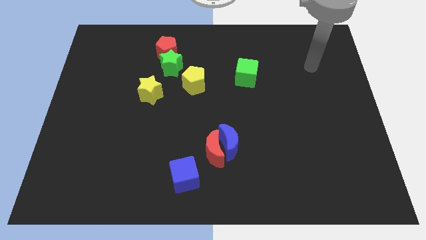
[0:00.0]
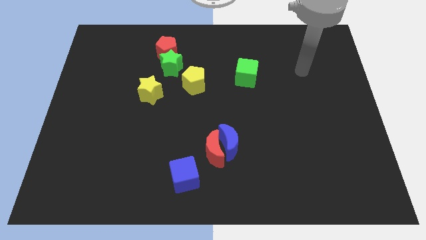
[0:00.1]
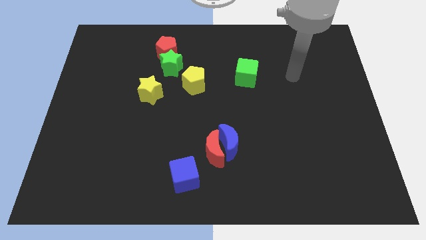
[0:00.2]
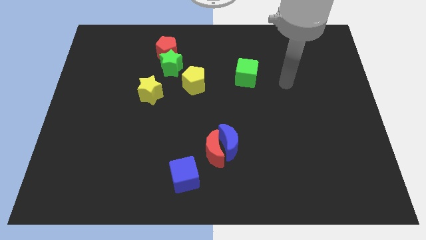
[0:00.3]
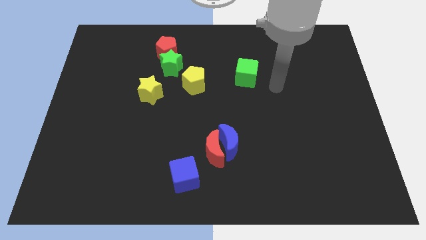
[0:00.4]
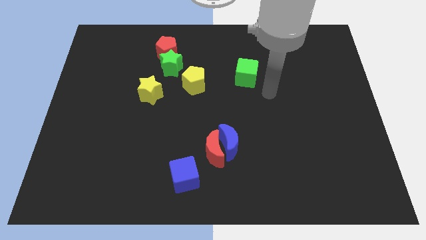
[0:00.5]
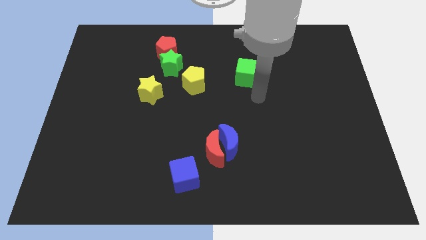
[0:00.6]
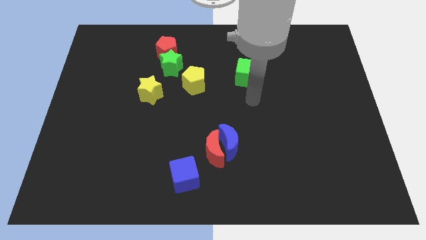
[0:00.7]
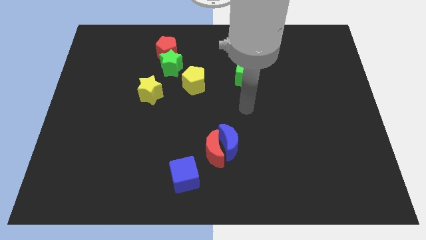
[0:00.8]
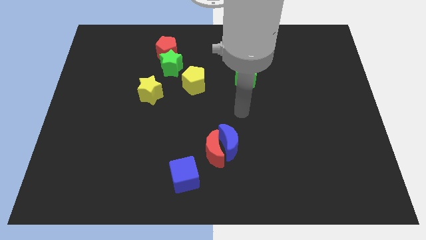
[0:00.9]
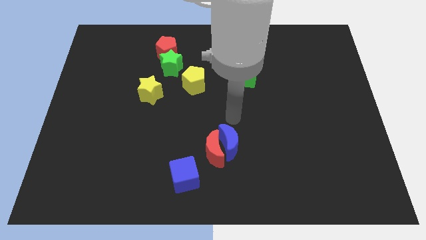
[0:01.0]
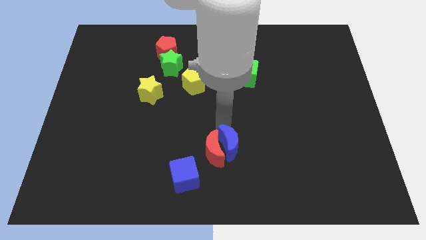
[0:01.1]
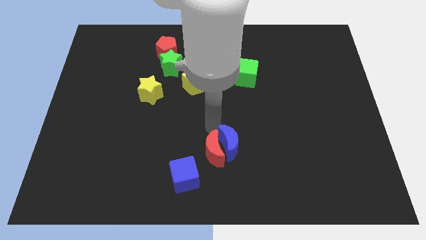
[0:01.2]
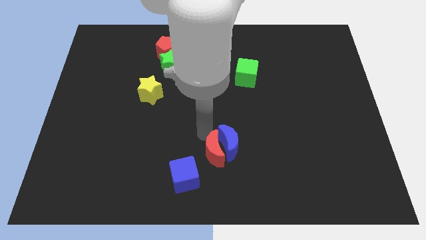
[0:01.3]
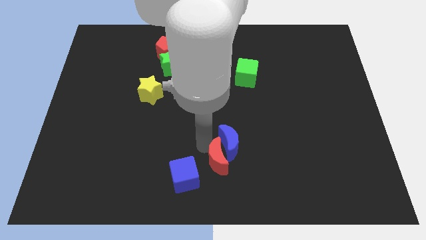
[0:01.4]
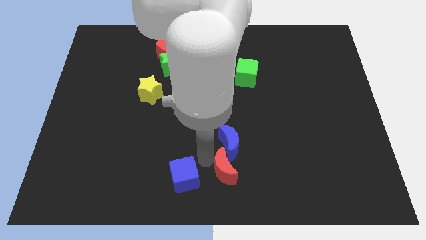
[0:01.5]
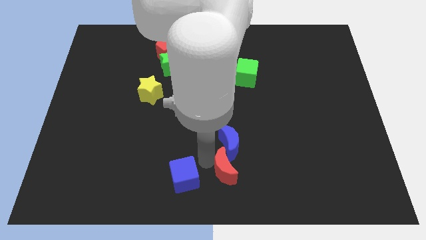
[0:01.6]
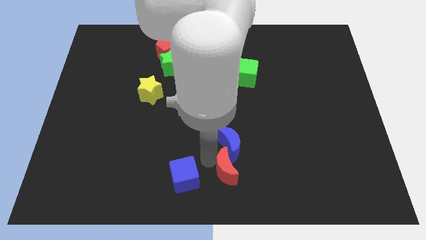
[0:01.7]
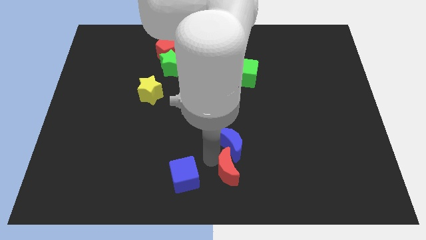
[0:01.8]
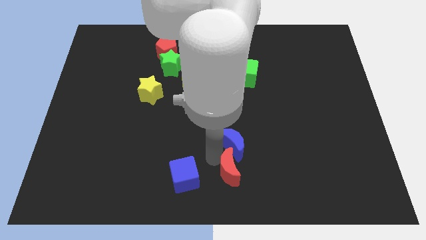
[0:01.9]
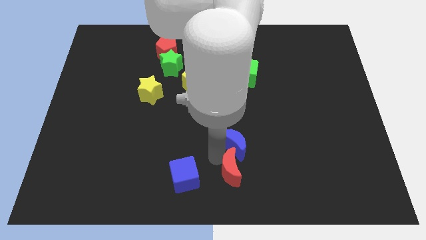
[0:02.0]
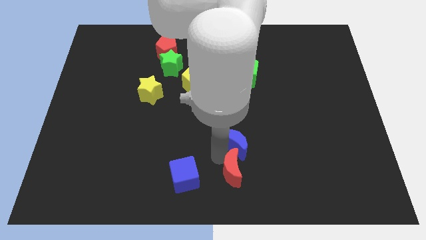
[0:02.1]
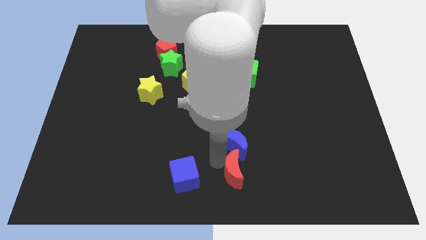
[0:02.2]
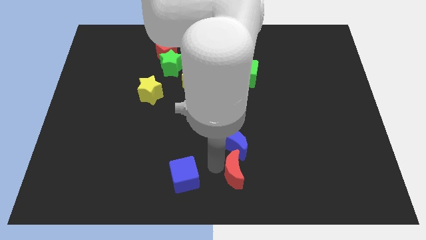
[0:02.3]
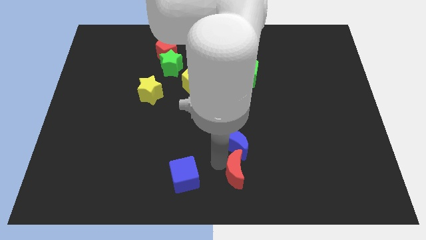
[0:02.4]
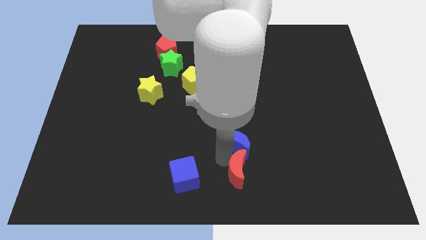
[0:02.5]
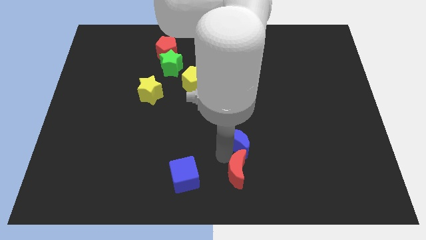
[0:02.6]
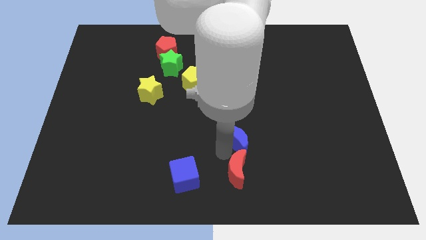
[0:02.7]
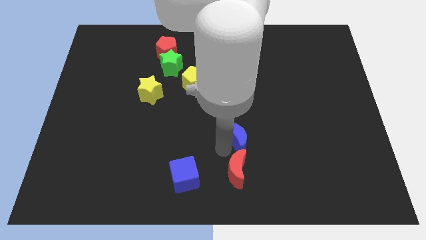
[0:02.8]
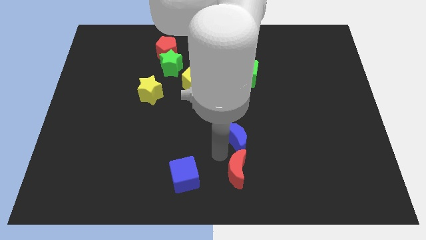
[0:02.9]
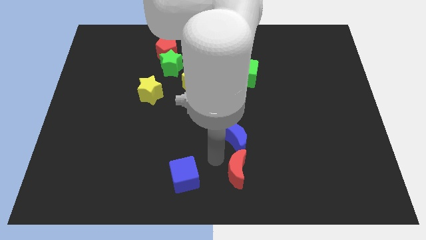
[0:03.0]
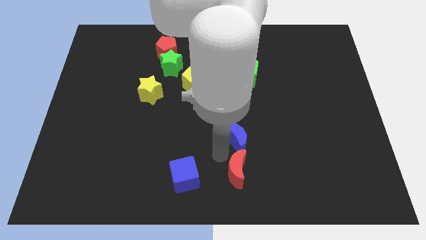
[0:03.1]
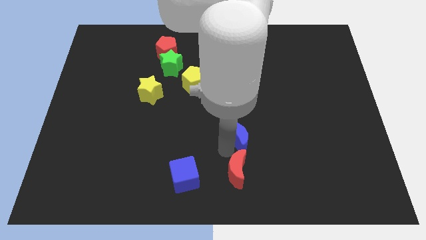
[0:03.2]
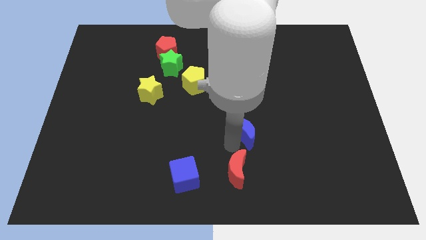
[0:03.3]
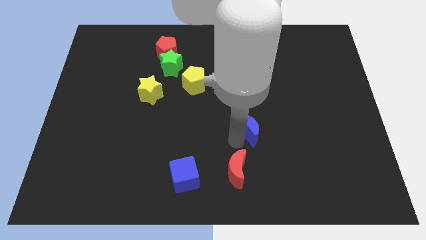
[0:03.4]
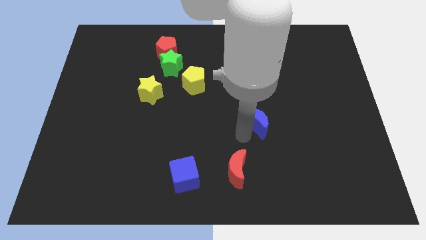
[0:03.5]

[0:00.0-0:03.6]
move the blue moon up and then to the right slightly

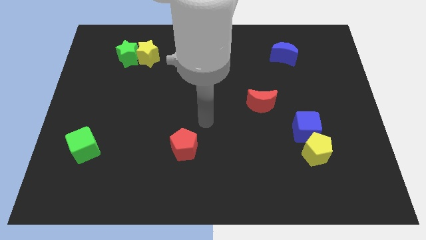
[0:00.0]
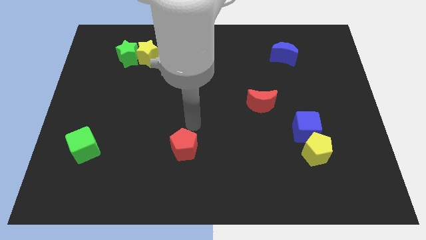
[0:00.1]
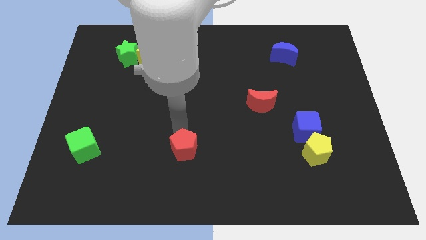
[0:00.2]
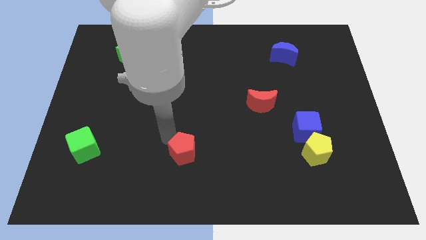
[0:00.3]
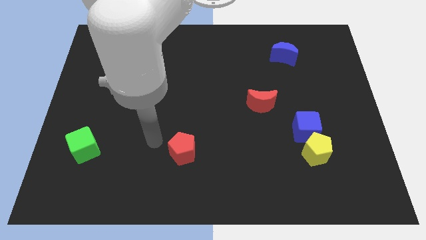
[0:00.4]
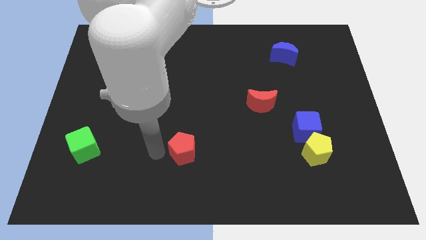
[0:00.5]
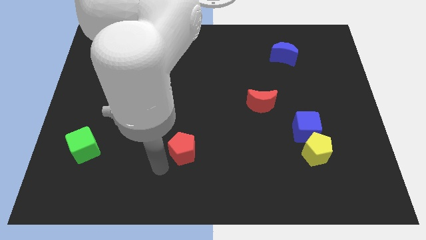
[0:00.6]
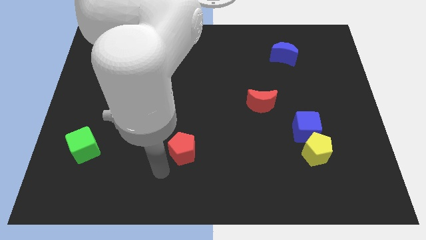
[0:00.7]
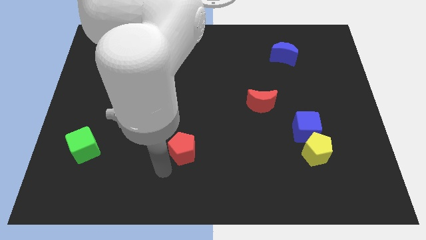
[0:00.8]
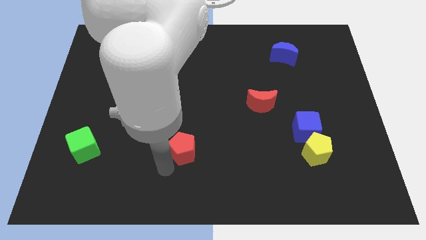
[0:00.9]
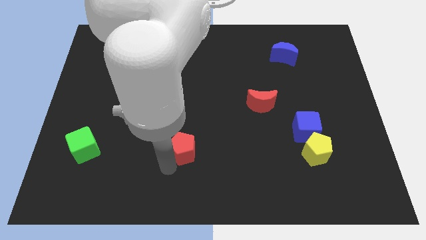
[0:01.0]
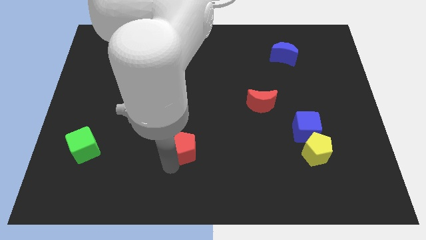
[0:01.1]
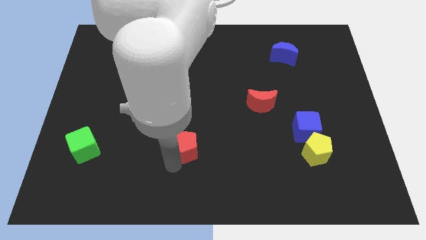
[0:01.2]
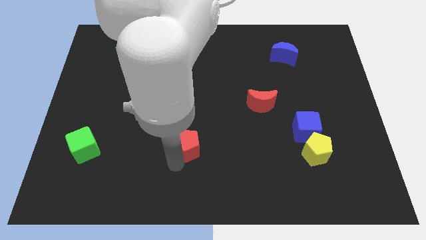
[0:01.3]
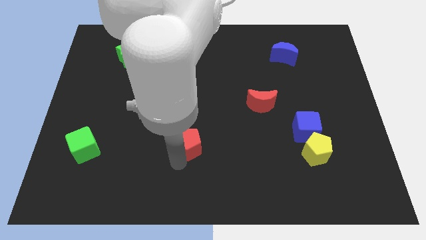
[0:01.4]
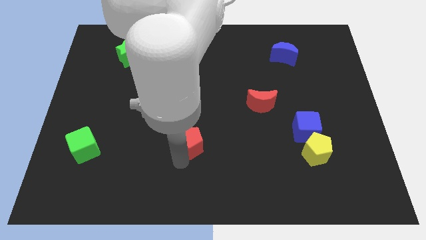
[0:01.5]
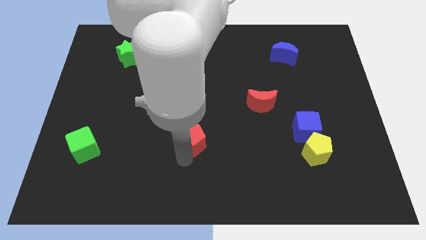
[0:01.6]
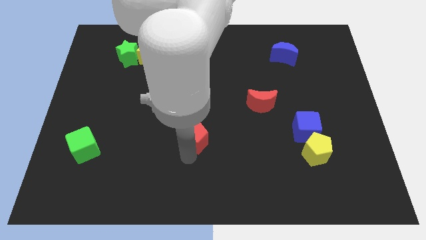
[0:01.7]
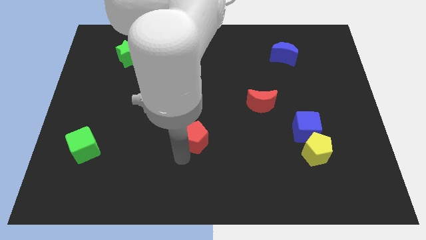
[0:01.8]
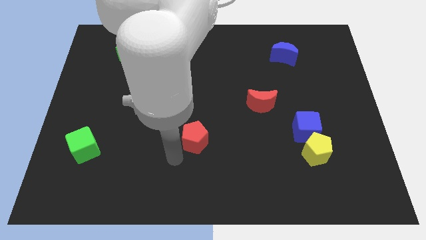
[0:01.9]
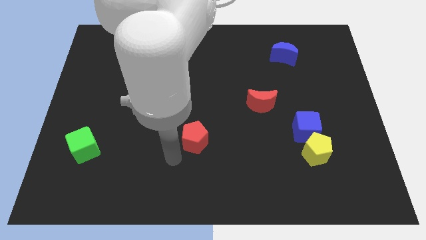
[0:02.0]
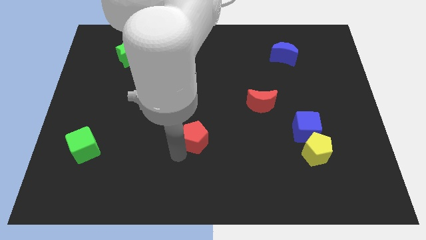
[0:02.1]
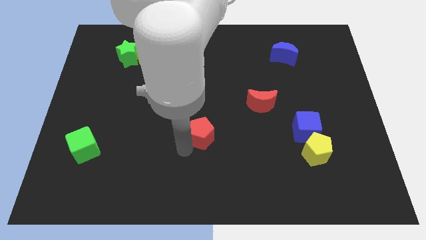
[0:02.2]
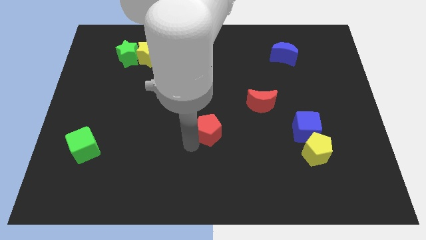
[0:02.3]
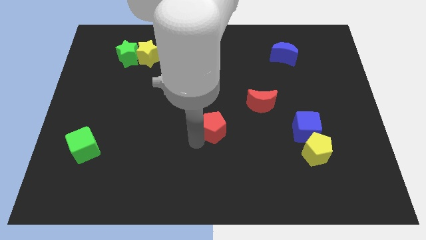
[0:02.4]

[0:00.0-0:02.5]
slightly slide the red pentagon upwards and to the right diagonally

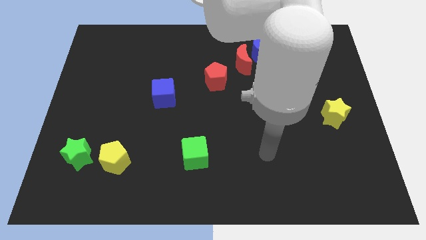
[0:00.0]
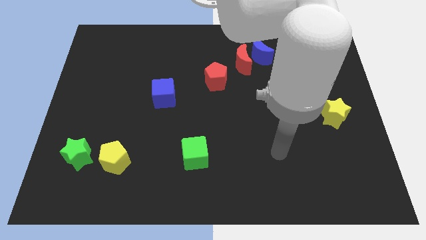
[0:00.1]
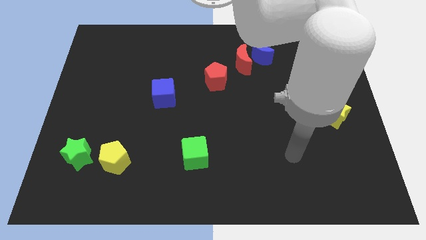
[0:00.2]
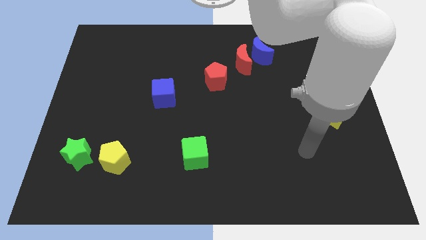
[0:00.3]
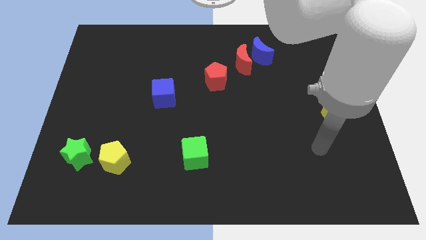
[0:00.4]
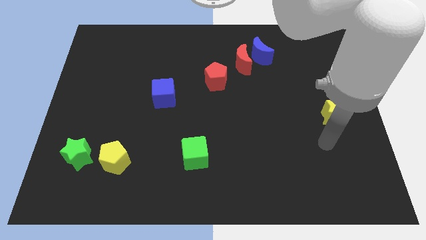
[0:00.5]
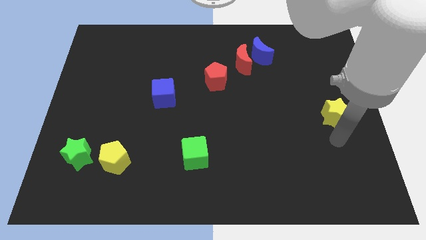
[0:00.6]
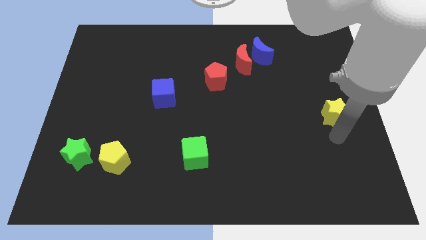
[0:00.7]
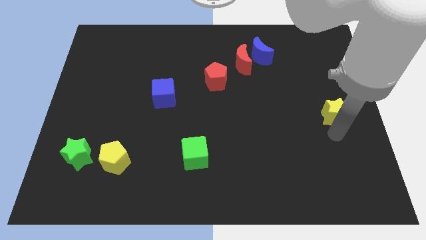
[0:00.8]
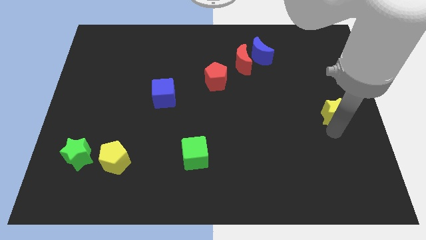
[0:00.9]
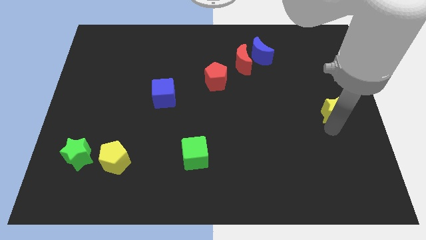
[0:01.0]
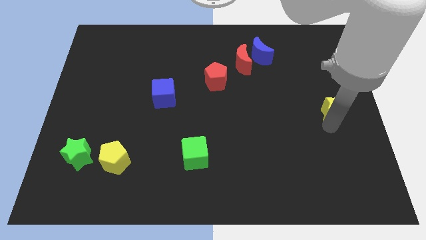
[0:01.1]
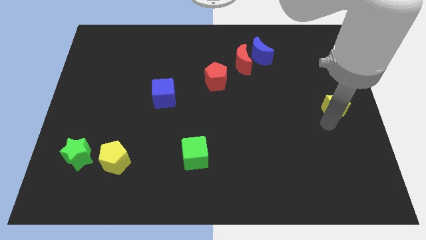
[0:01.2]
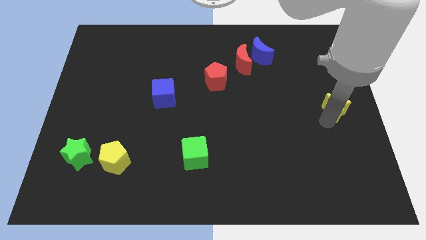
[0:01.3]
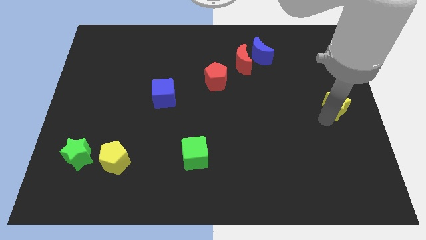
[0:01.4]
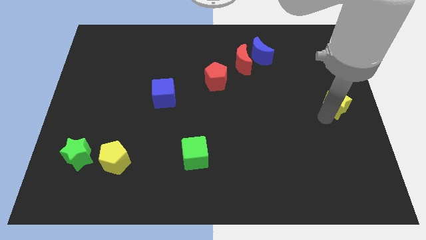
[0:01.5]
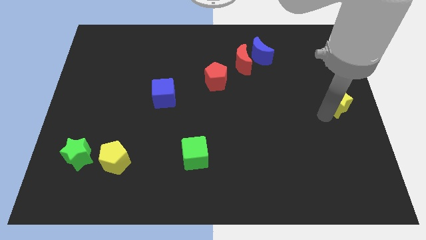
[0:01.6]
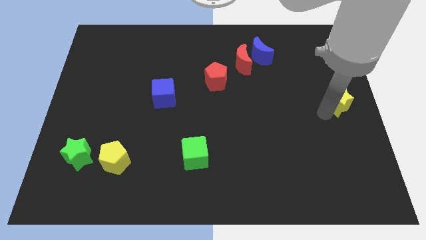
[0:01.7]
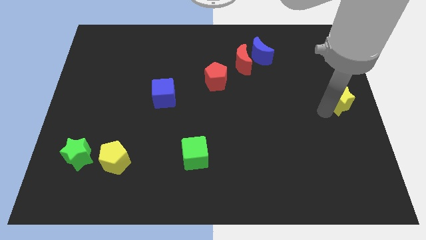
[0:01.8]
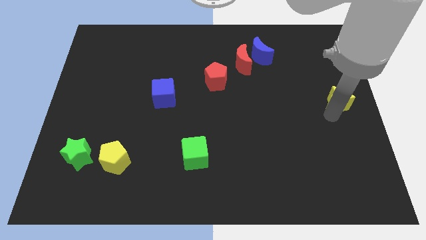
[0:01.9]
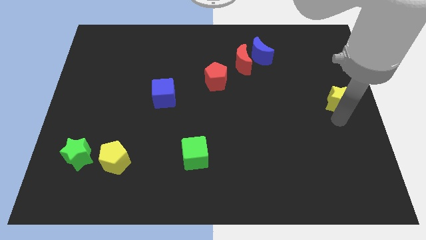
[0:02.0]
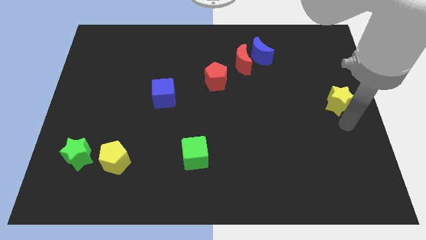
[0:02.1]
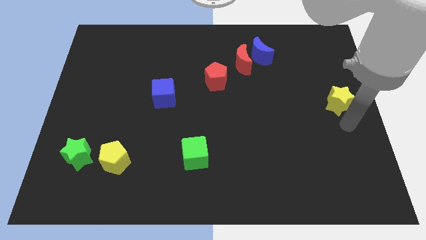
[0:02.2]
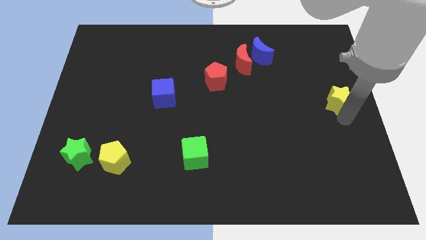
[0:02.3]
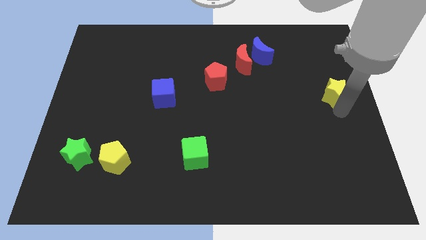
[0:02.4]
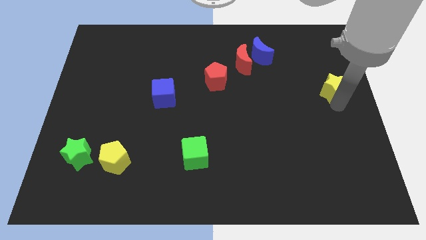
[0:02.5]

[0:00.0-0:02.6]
move the yellow star a little up
